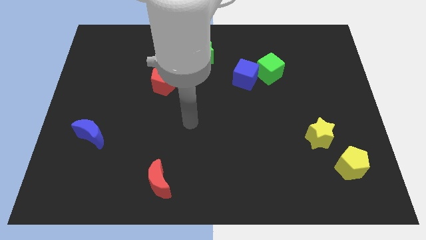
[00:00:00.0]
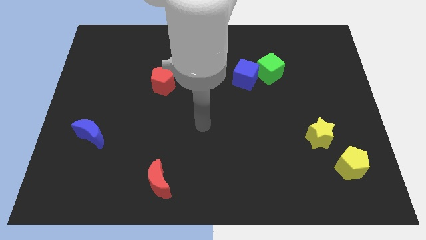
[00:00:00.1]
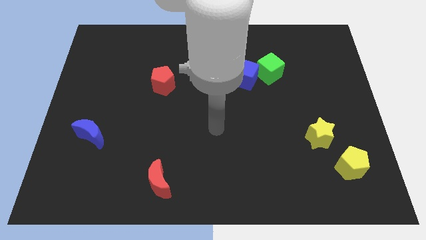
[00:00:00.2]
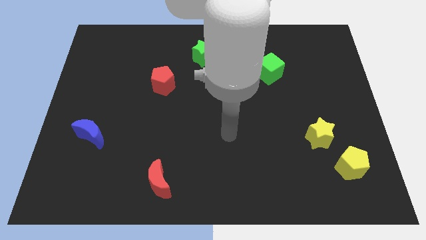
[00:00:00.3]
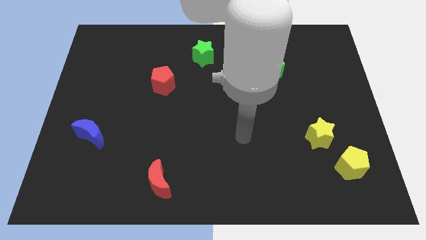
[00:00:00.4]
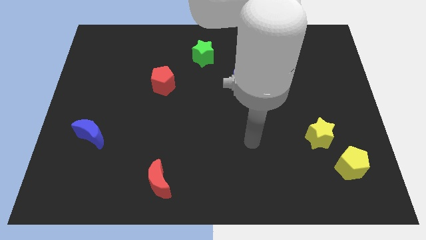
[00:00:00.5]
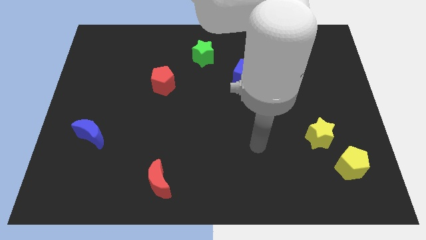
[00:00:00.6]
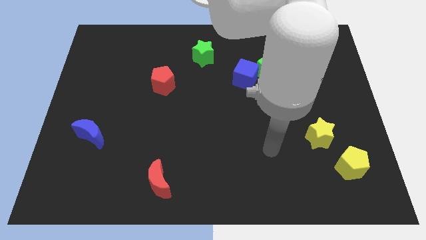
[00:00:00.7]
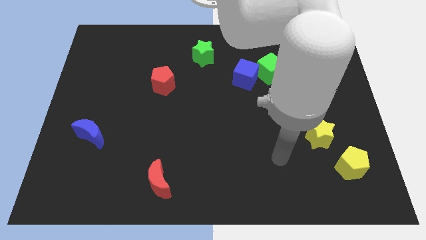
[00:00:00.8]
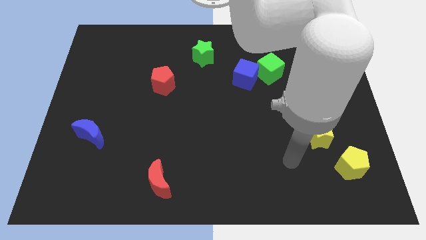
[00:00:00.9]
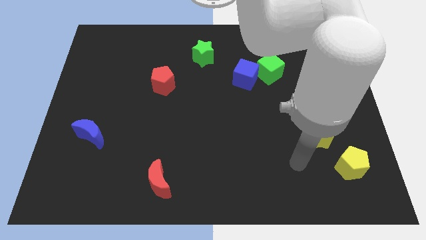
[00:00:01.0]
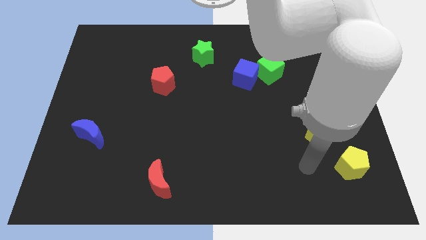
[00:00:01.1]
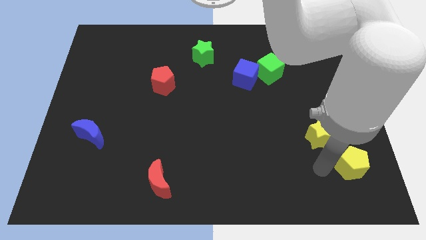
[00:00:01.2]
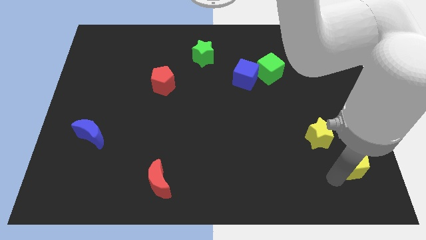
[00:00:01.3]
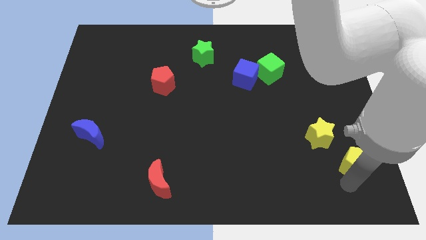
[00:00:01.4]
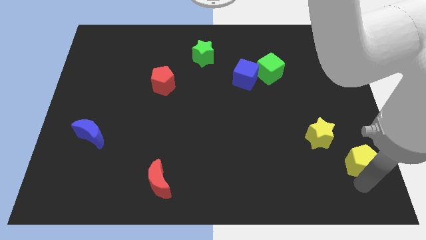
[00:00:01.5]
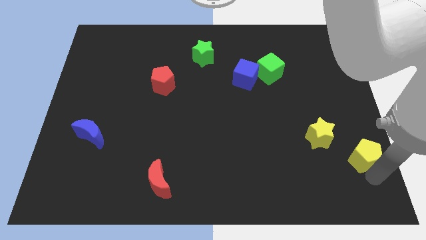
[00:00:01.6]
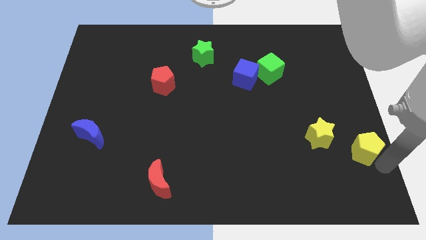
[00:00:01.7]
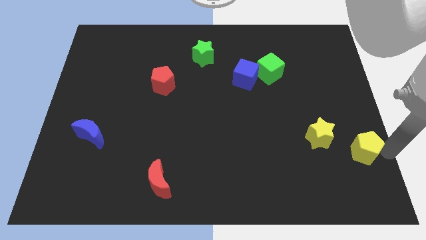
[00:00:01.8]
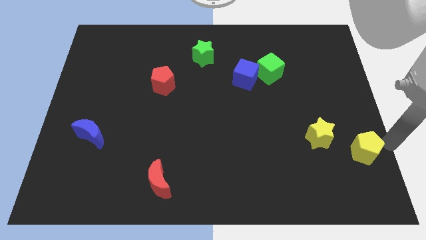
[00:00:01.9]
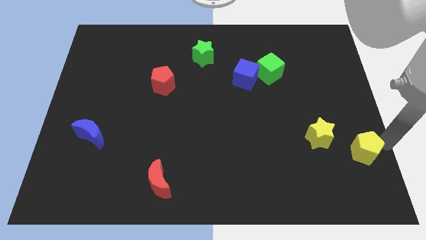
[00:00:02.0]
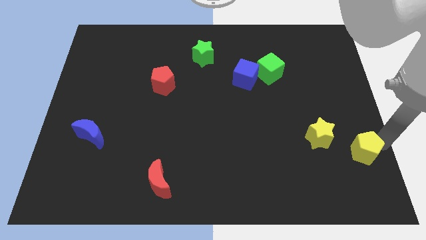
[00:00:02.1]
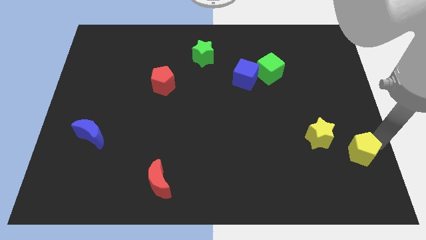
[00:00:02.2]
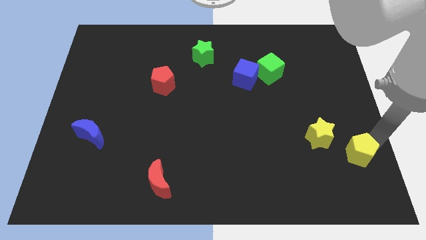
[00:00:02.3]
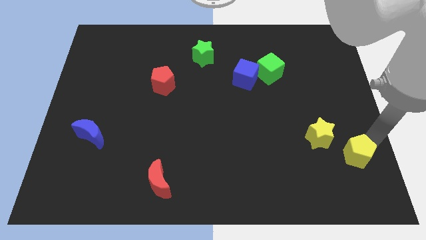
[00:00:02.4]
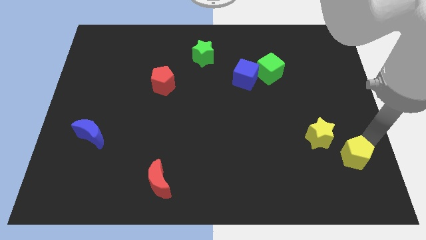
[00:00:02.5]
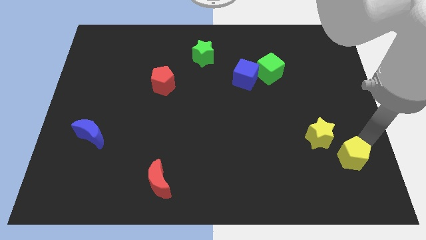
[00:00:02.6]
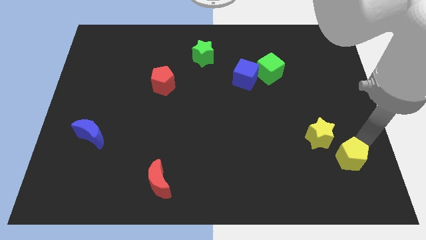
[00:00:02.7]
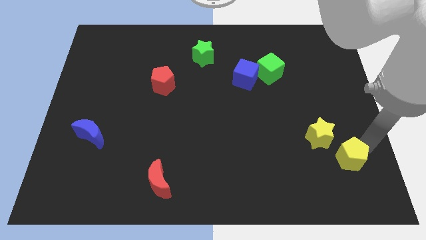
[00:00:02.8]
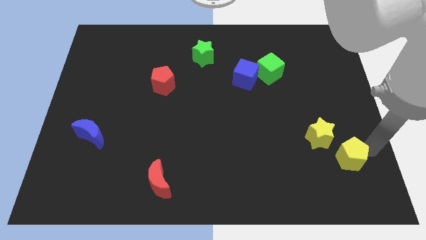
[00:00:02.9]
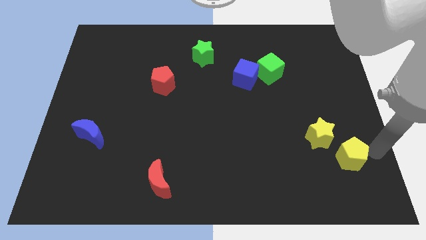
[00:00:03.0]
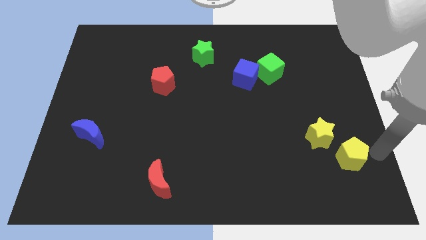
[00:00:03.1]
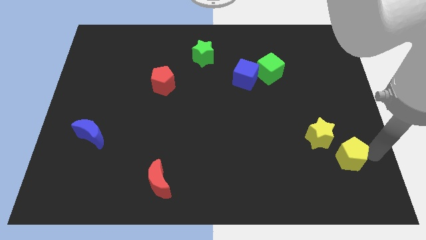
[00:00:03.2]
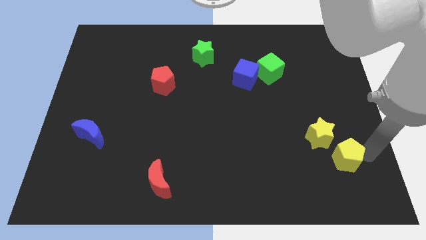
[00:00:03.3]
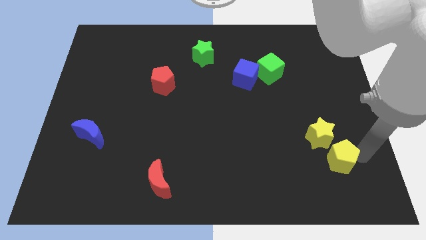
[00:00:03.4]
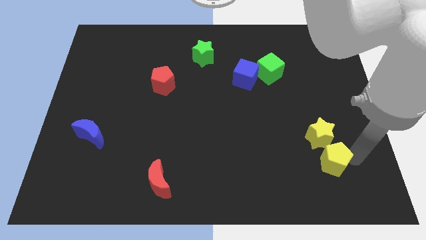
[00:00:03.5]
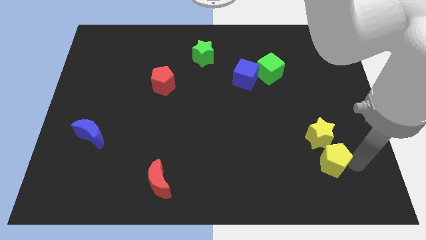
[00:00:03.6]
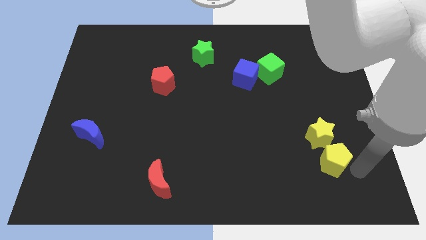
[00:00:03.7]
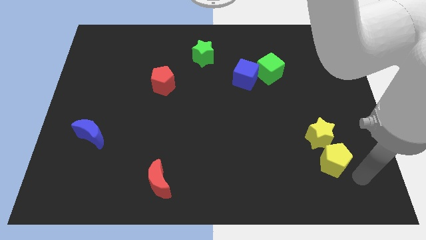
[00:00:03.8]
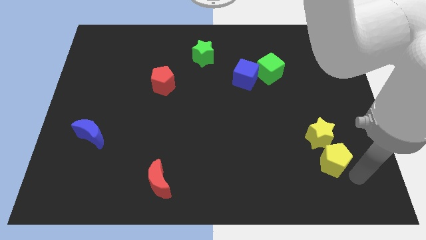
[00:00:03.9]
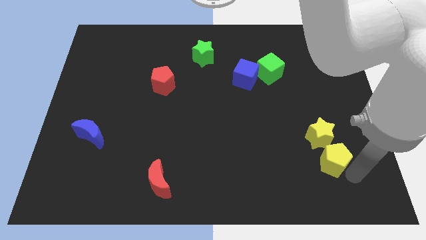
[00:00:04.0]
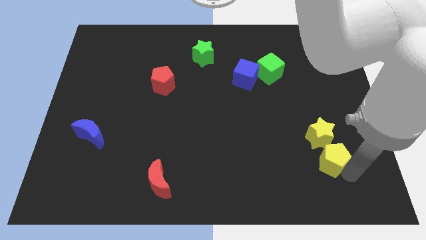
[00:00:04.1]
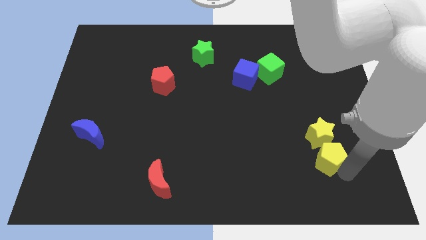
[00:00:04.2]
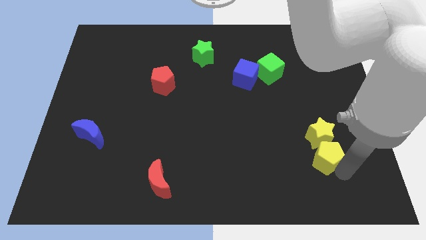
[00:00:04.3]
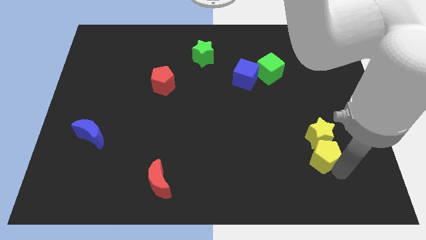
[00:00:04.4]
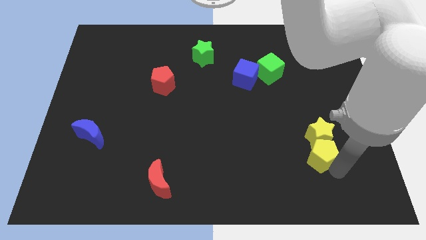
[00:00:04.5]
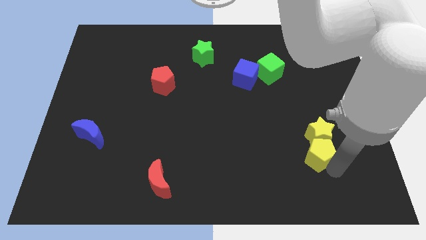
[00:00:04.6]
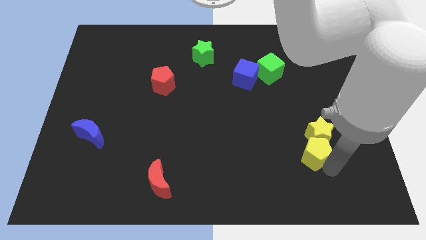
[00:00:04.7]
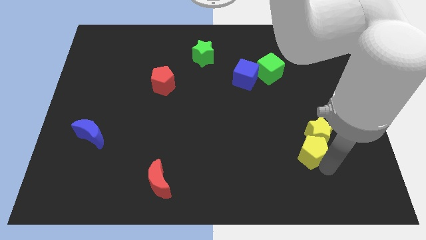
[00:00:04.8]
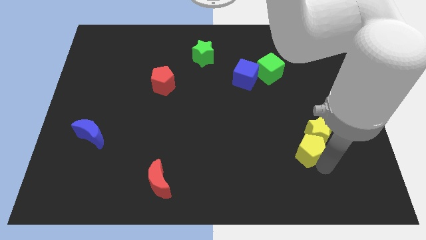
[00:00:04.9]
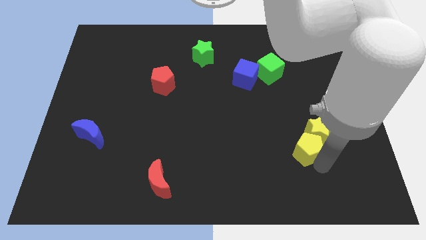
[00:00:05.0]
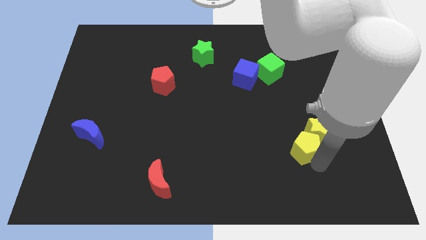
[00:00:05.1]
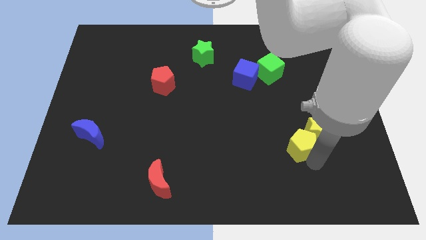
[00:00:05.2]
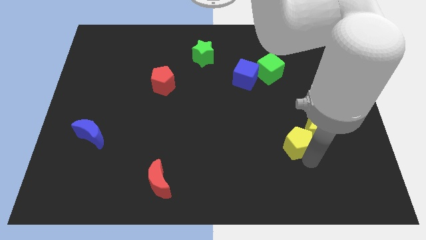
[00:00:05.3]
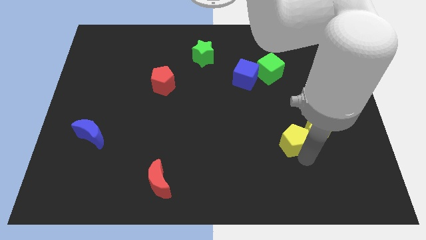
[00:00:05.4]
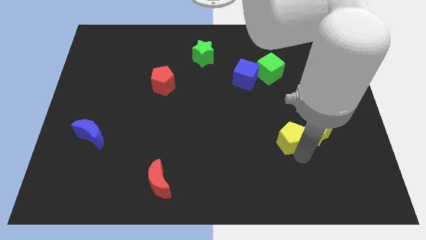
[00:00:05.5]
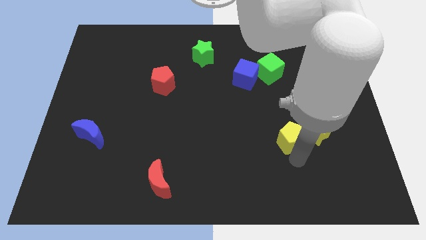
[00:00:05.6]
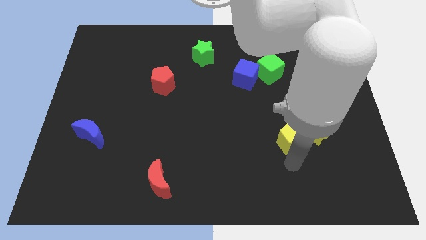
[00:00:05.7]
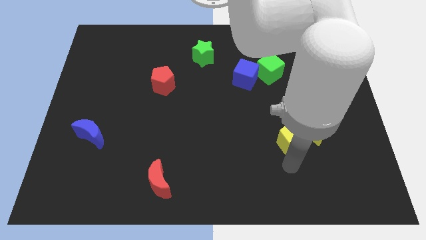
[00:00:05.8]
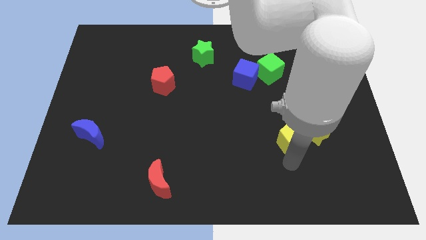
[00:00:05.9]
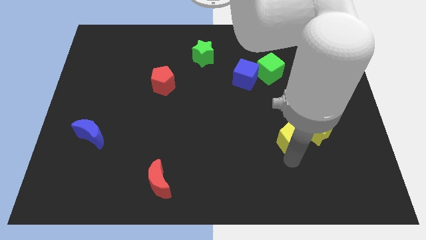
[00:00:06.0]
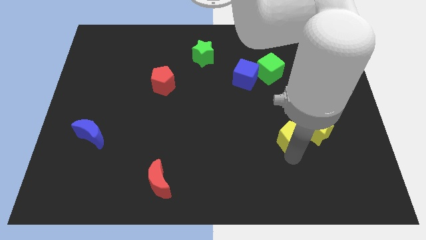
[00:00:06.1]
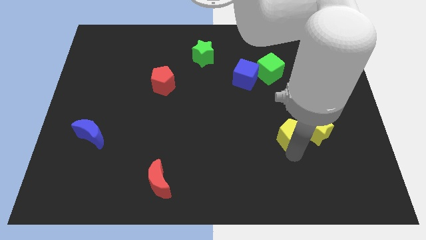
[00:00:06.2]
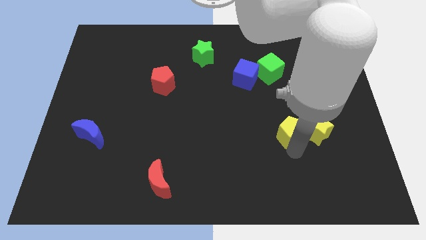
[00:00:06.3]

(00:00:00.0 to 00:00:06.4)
move the yellow pentagon to the top left of the yellow star

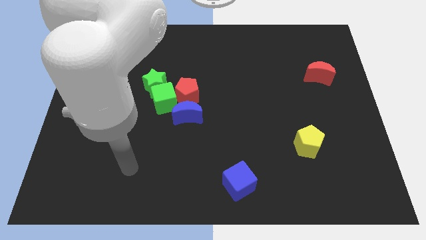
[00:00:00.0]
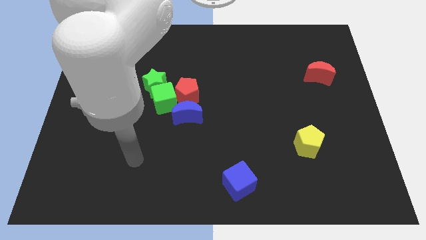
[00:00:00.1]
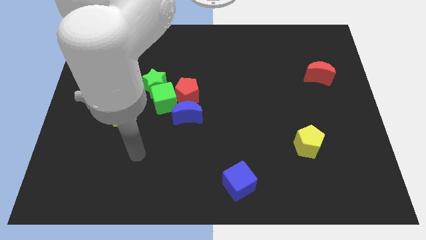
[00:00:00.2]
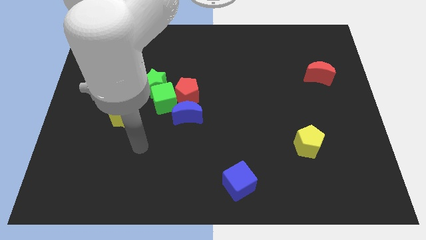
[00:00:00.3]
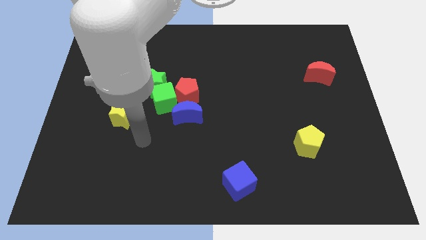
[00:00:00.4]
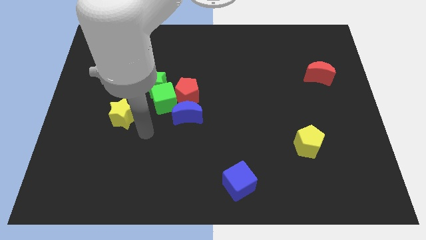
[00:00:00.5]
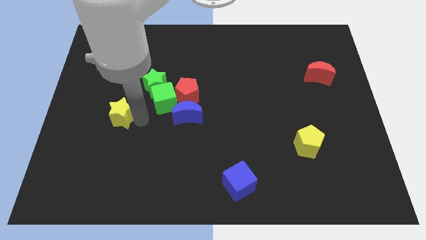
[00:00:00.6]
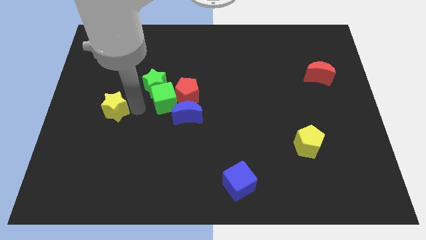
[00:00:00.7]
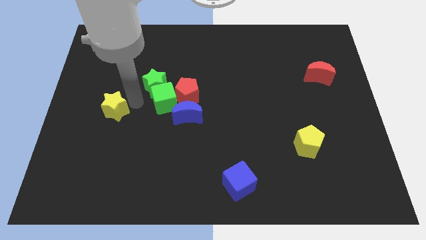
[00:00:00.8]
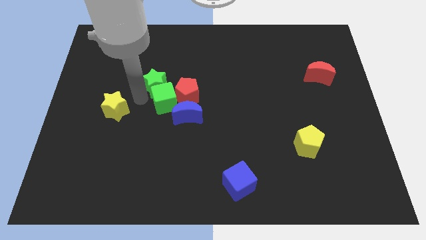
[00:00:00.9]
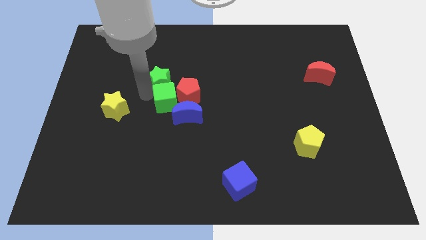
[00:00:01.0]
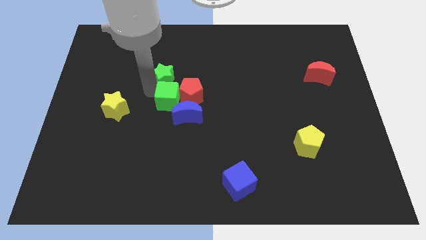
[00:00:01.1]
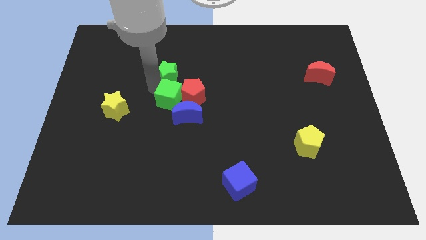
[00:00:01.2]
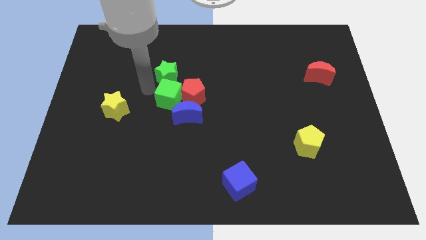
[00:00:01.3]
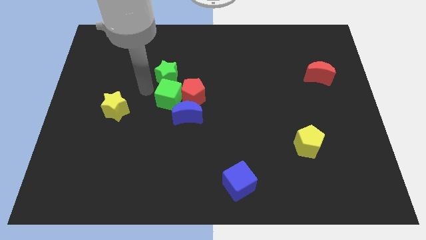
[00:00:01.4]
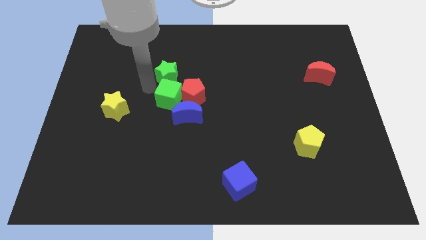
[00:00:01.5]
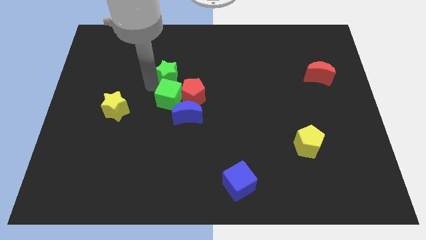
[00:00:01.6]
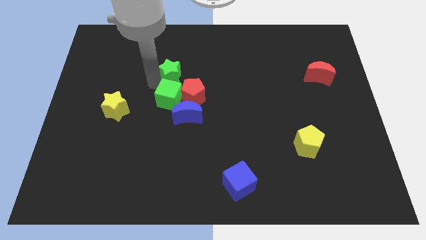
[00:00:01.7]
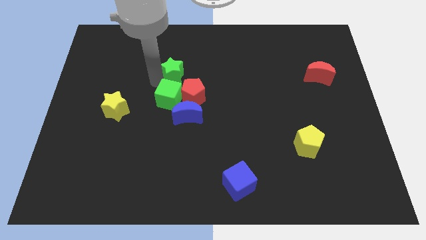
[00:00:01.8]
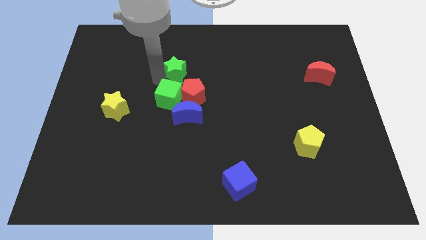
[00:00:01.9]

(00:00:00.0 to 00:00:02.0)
move the green star above the red pentagon
